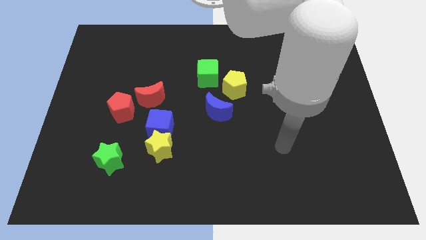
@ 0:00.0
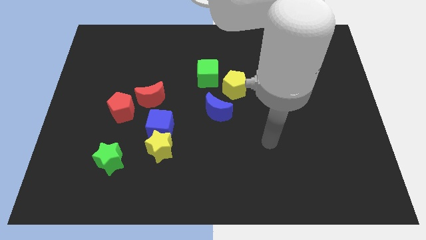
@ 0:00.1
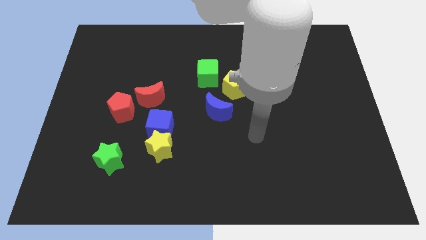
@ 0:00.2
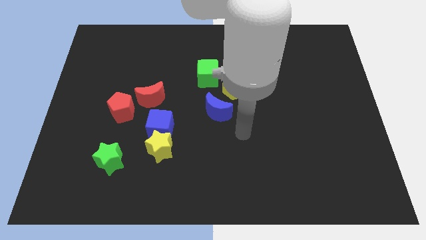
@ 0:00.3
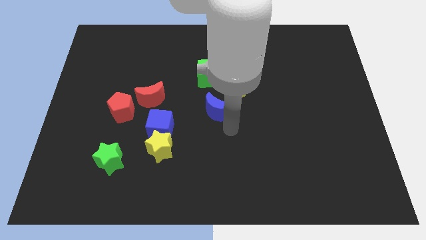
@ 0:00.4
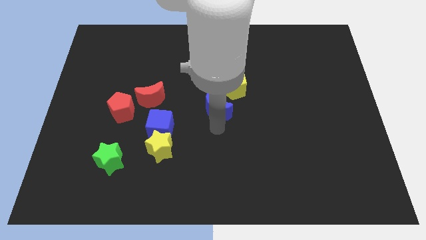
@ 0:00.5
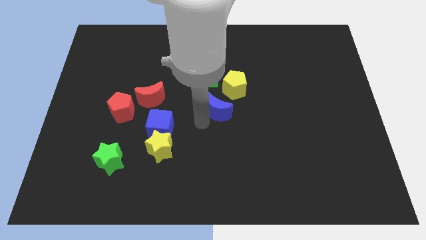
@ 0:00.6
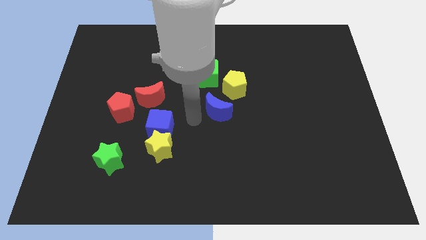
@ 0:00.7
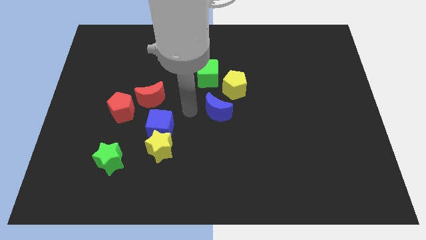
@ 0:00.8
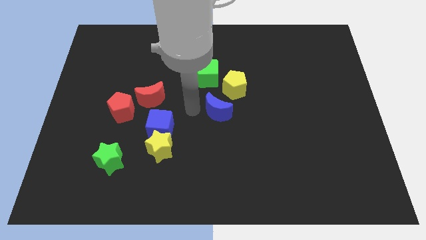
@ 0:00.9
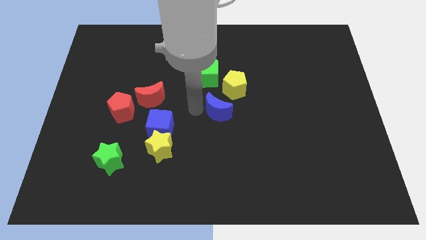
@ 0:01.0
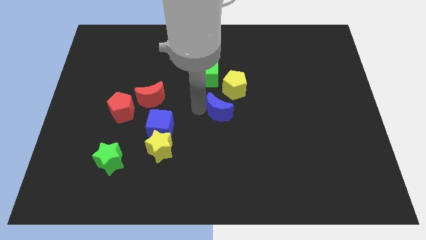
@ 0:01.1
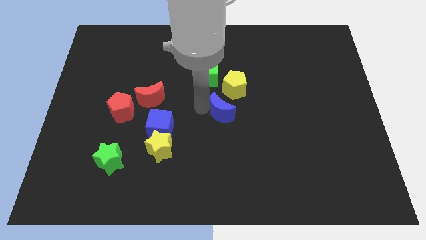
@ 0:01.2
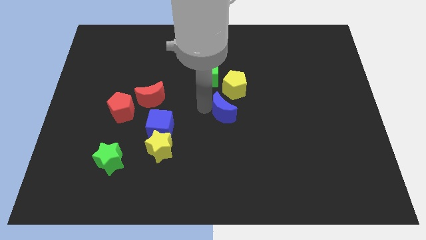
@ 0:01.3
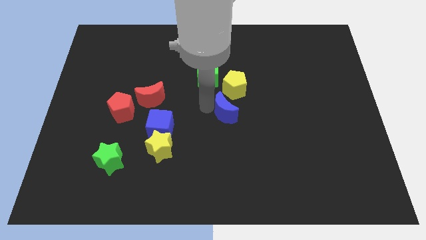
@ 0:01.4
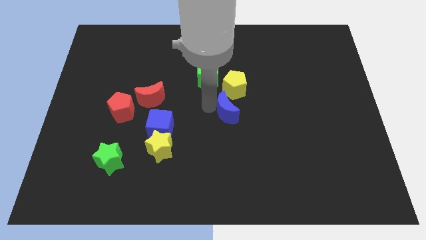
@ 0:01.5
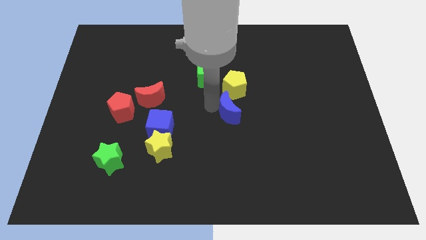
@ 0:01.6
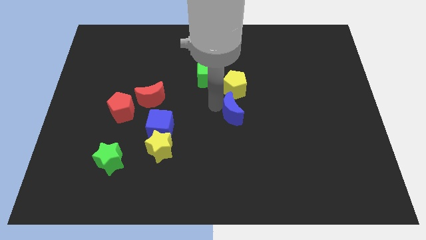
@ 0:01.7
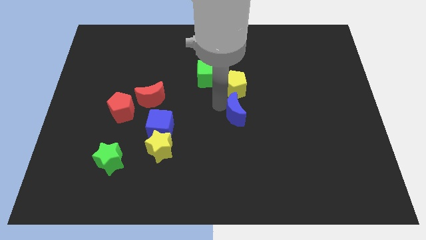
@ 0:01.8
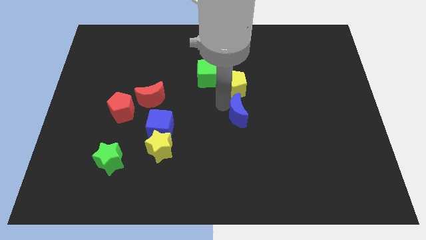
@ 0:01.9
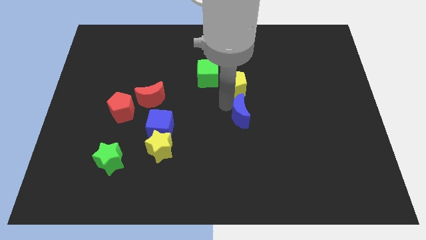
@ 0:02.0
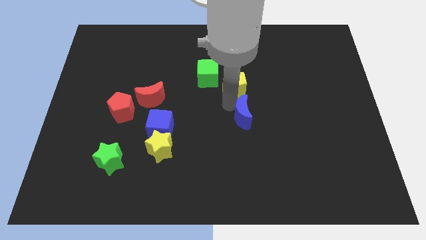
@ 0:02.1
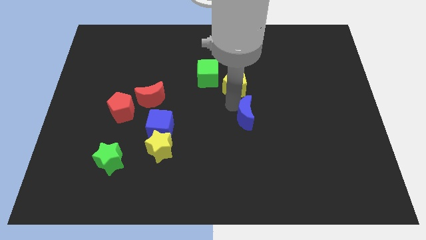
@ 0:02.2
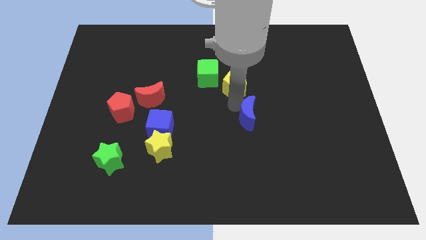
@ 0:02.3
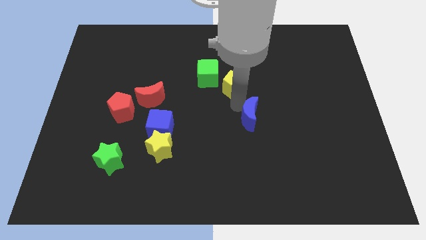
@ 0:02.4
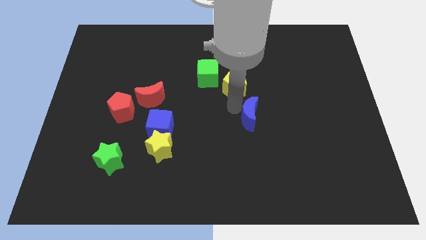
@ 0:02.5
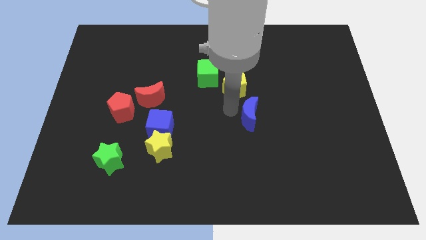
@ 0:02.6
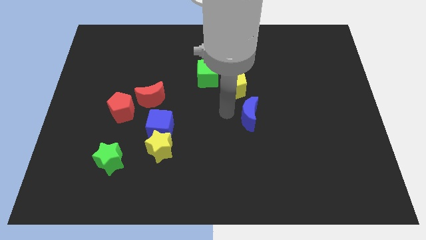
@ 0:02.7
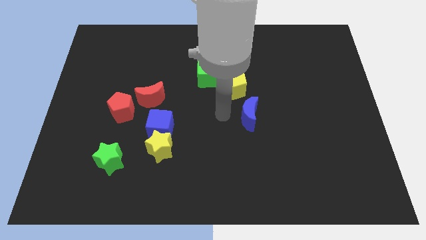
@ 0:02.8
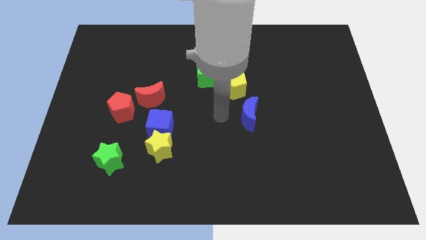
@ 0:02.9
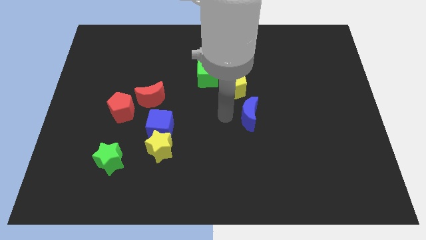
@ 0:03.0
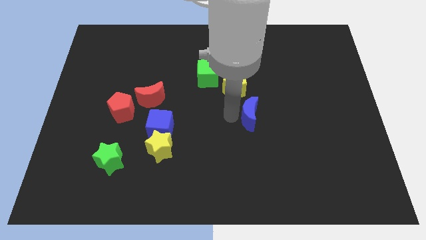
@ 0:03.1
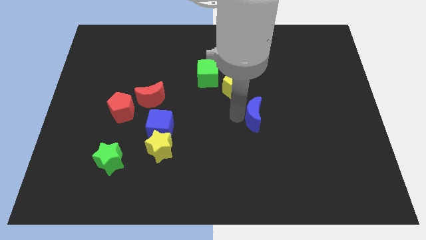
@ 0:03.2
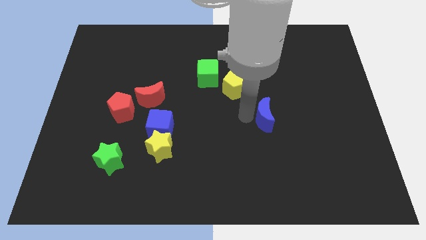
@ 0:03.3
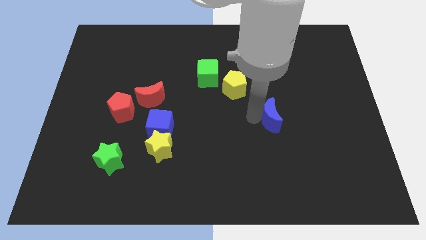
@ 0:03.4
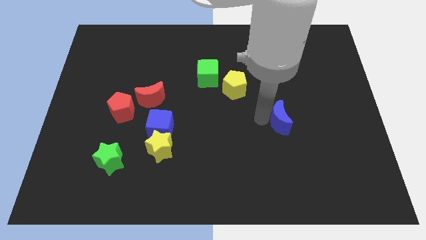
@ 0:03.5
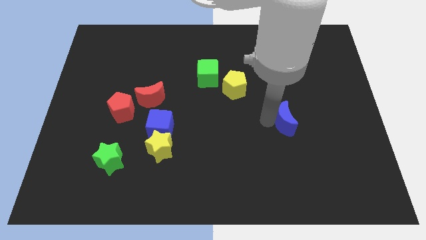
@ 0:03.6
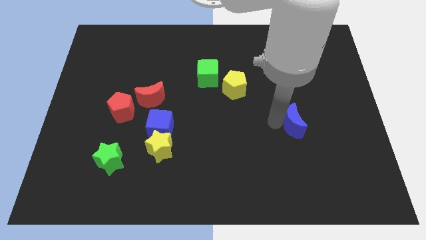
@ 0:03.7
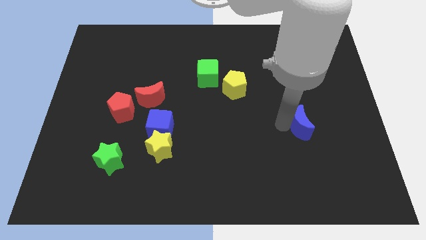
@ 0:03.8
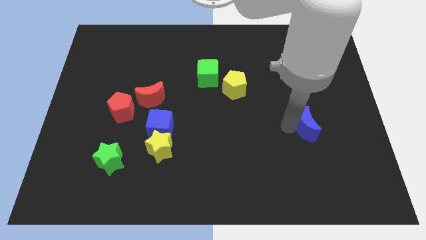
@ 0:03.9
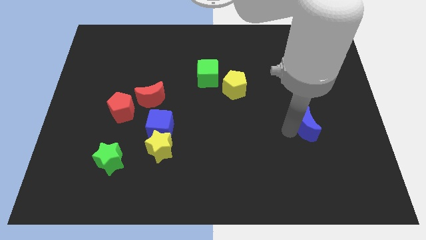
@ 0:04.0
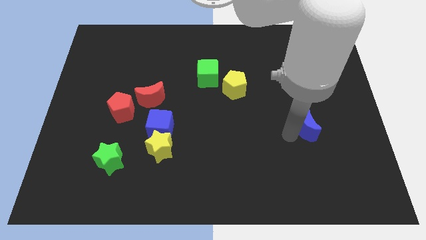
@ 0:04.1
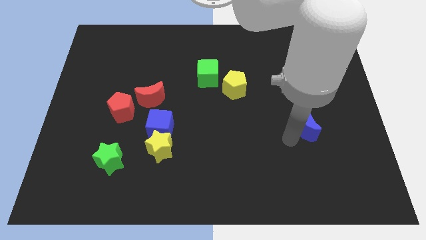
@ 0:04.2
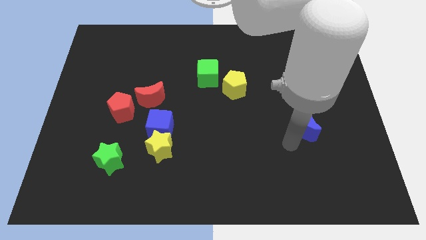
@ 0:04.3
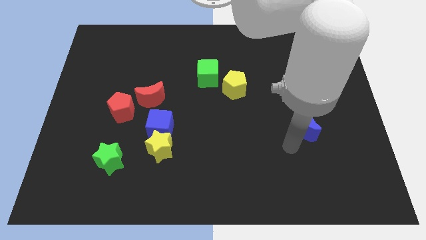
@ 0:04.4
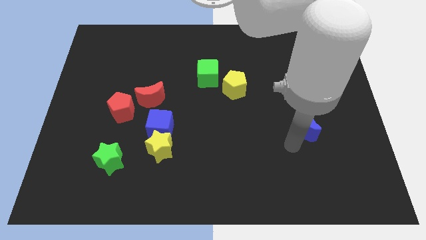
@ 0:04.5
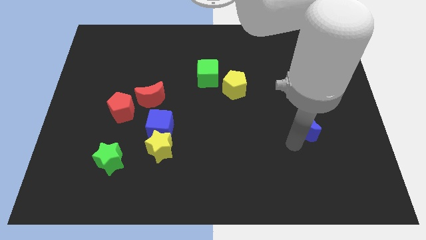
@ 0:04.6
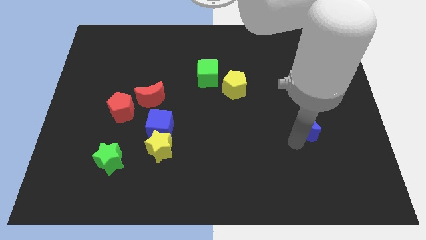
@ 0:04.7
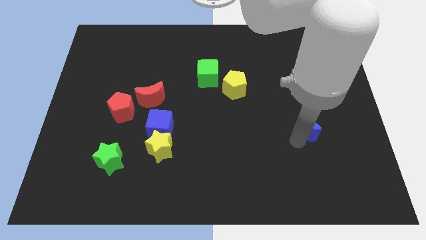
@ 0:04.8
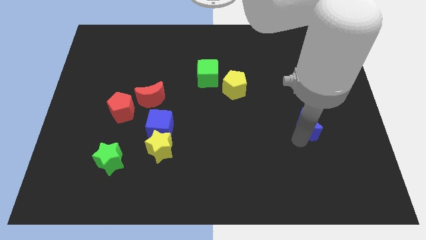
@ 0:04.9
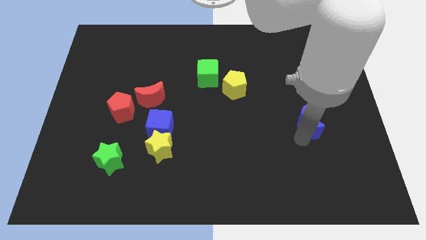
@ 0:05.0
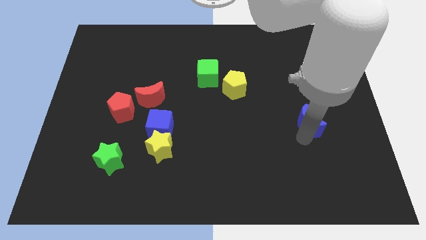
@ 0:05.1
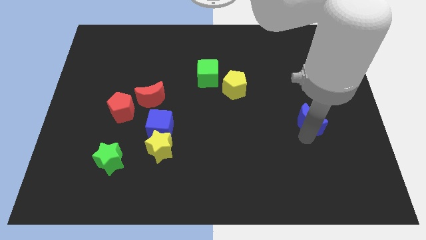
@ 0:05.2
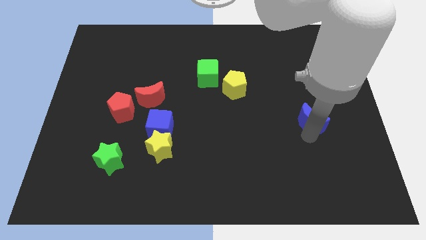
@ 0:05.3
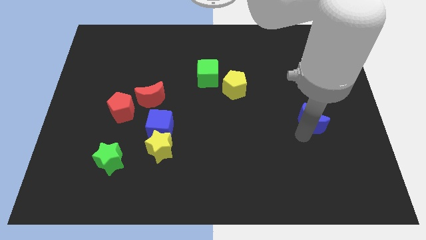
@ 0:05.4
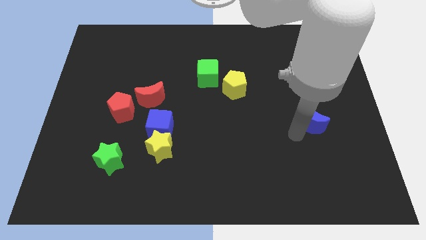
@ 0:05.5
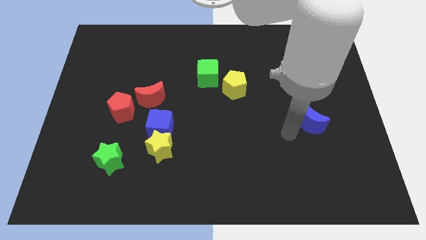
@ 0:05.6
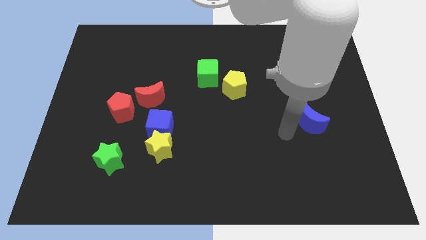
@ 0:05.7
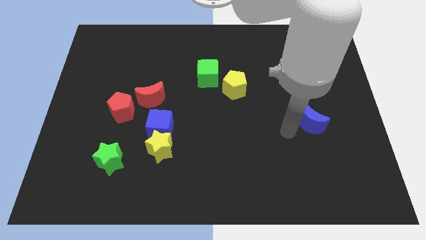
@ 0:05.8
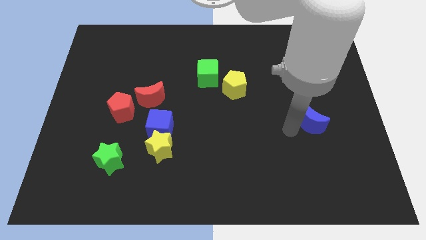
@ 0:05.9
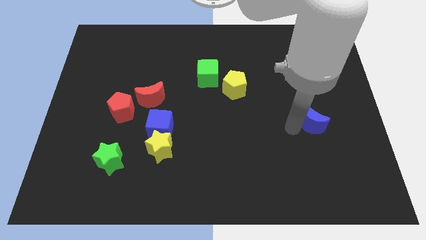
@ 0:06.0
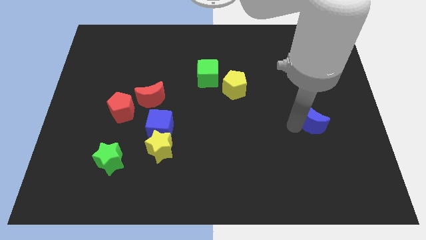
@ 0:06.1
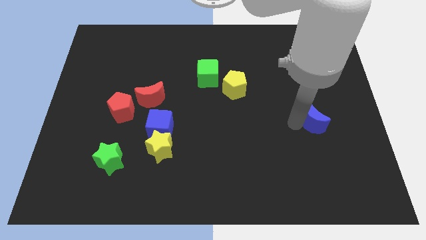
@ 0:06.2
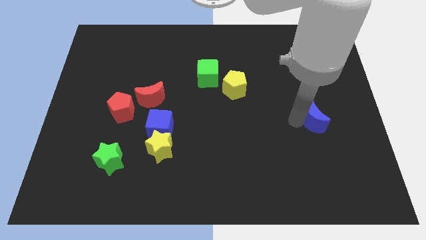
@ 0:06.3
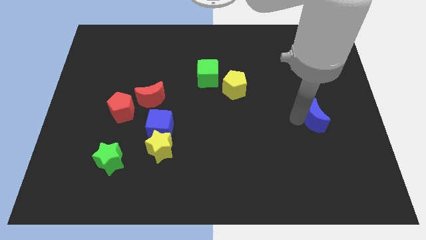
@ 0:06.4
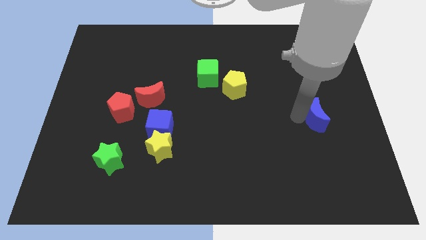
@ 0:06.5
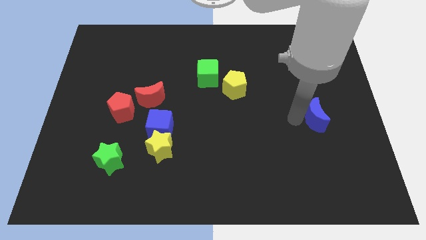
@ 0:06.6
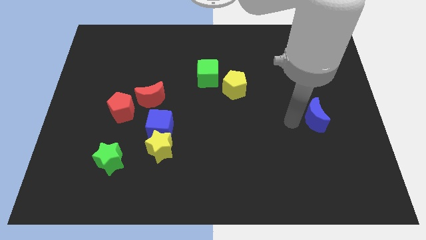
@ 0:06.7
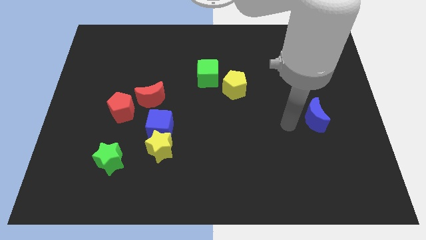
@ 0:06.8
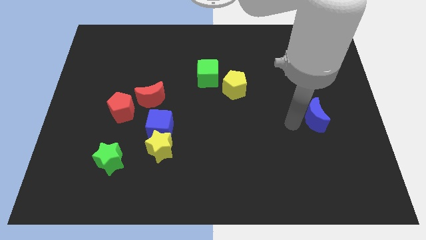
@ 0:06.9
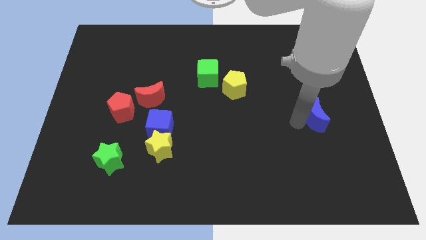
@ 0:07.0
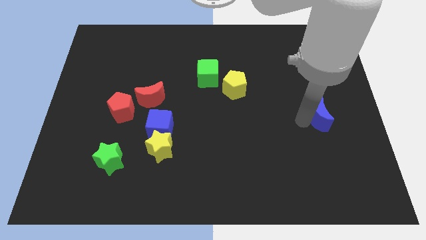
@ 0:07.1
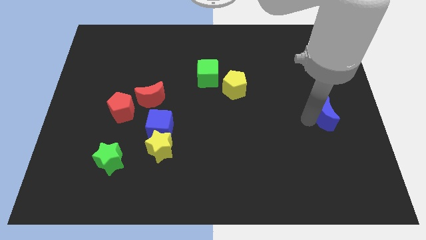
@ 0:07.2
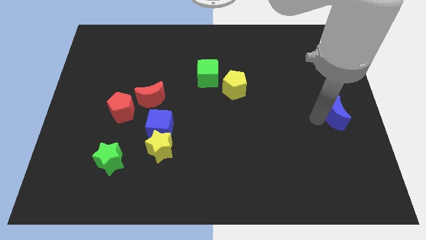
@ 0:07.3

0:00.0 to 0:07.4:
put the blue moon to the right side

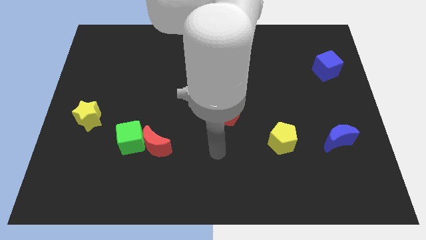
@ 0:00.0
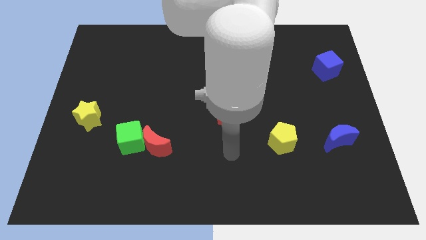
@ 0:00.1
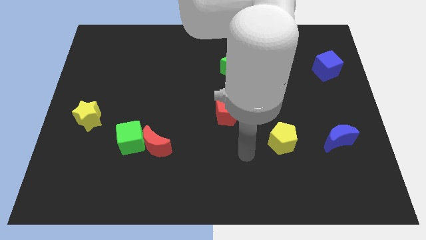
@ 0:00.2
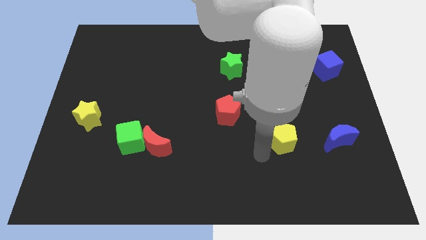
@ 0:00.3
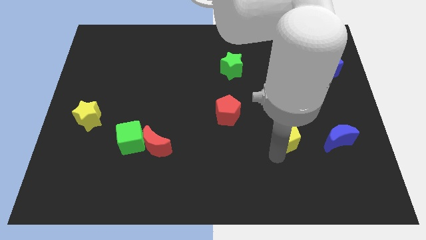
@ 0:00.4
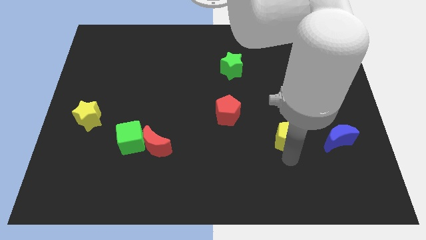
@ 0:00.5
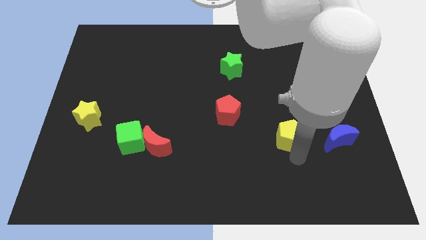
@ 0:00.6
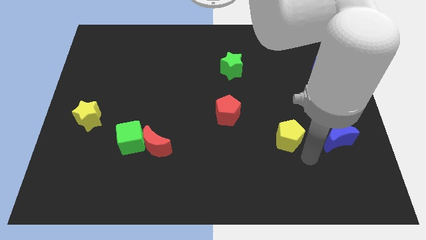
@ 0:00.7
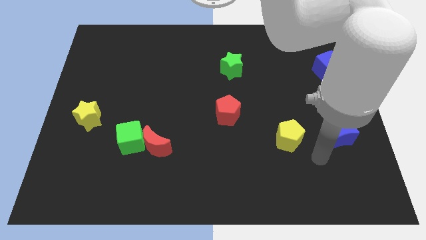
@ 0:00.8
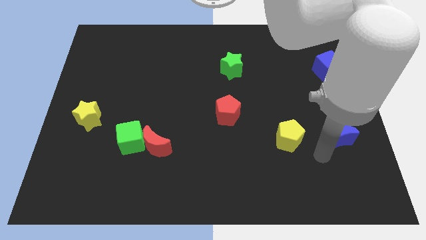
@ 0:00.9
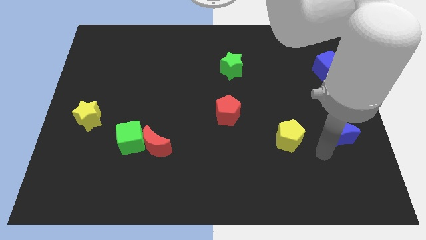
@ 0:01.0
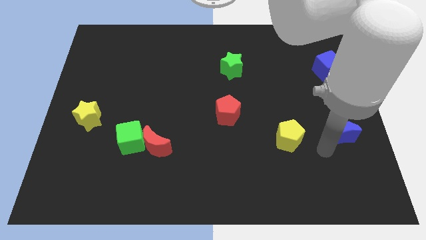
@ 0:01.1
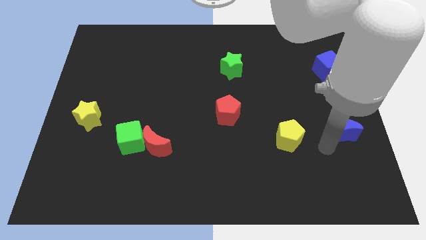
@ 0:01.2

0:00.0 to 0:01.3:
push the blue moon to the center right
